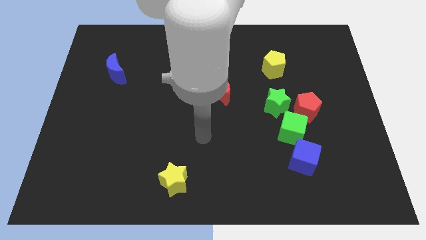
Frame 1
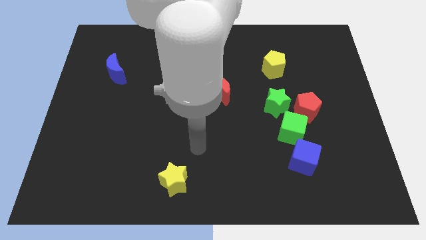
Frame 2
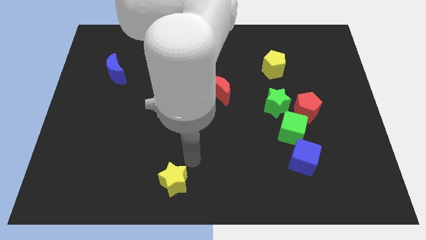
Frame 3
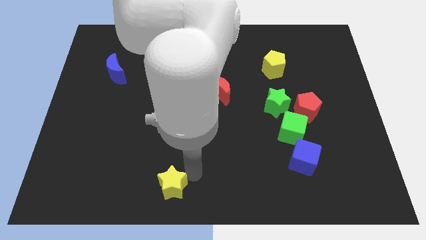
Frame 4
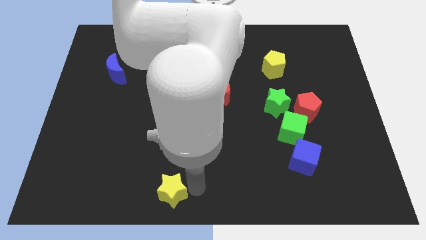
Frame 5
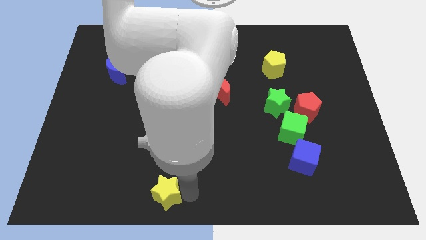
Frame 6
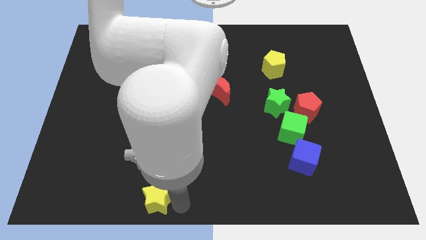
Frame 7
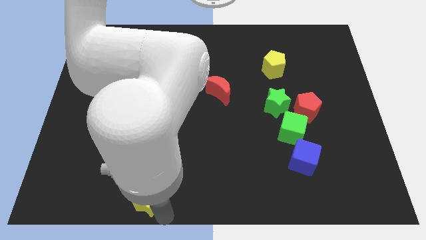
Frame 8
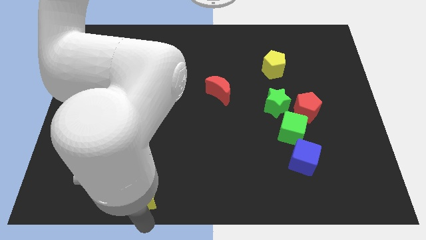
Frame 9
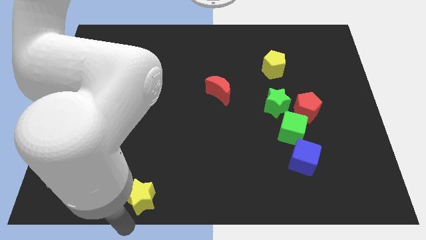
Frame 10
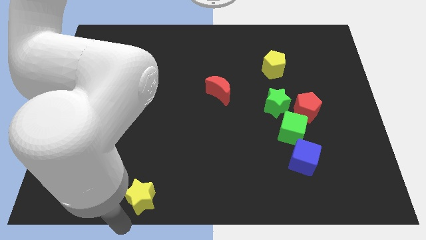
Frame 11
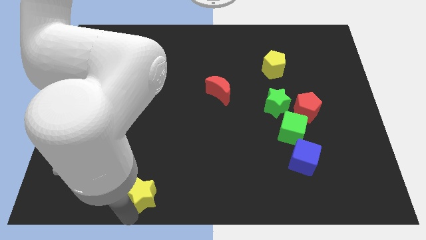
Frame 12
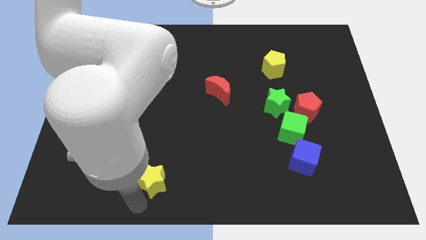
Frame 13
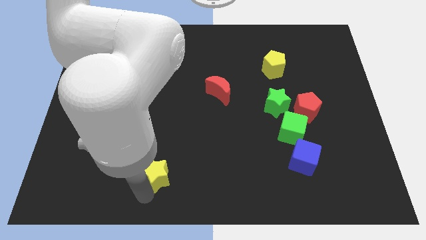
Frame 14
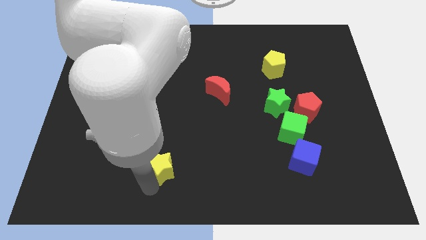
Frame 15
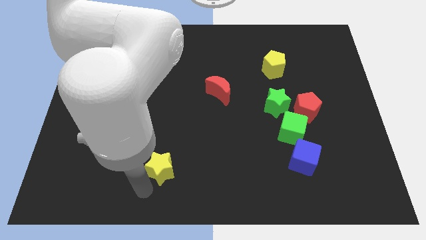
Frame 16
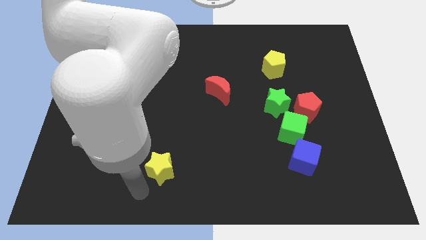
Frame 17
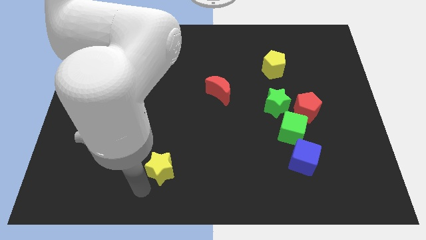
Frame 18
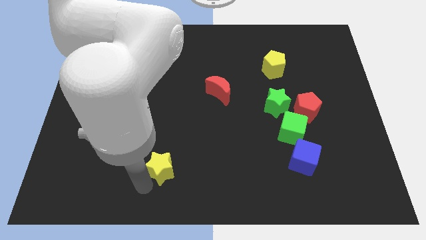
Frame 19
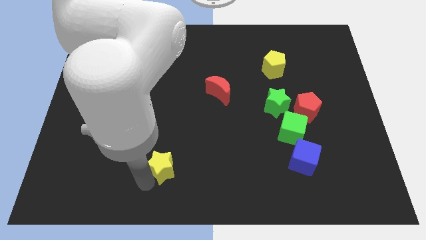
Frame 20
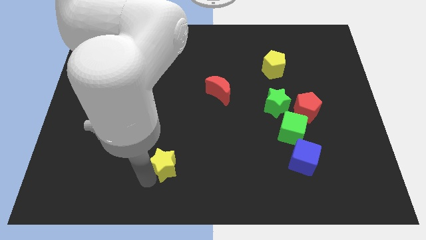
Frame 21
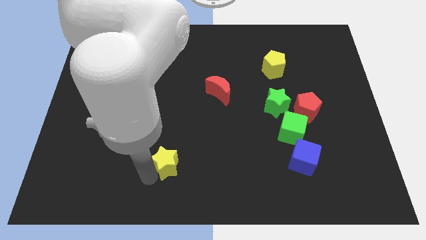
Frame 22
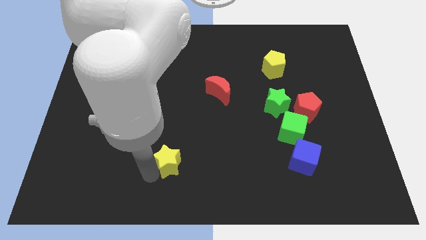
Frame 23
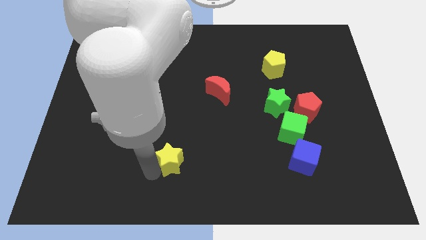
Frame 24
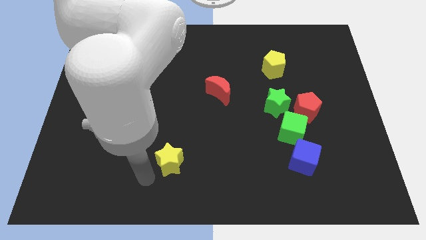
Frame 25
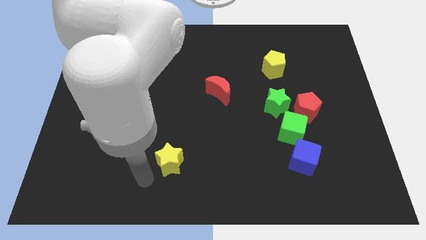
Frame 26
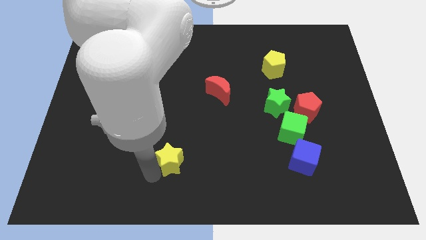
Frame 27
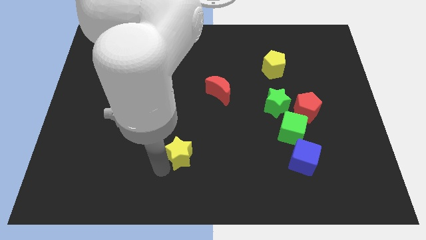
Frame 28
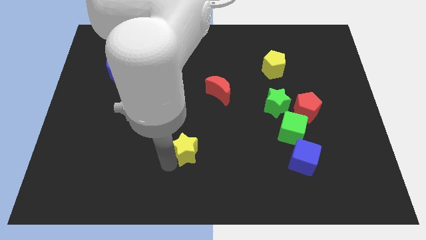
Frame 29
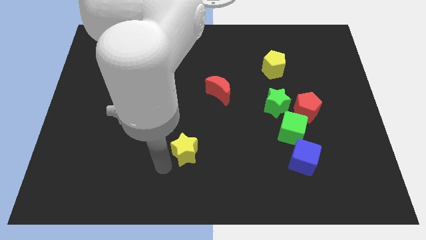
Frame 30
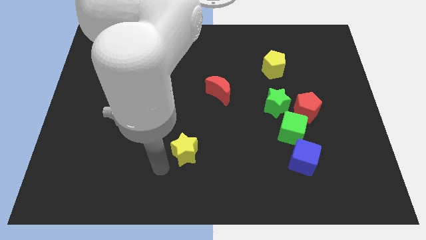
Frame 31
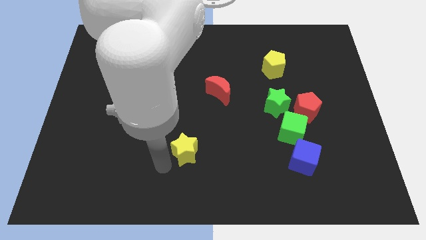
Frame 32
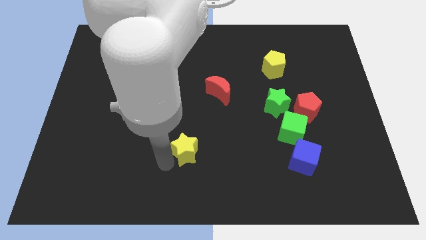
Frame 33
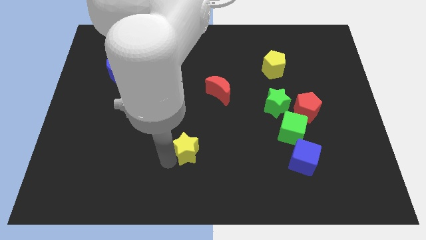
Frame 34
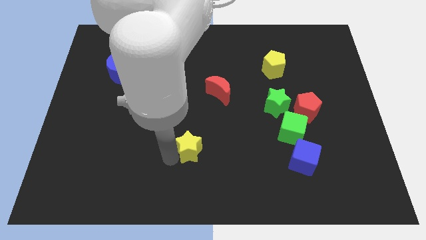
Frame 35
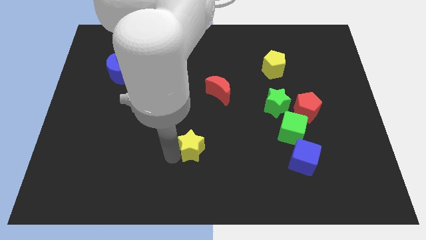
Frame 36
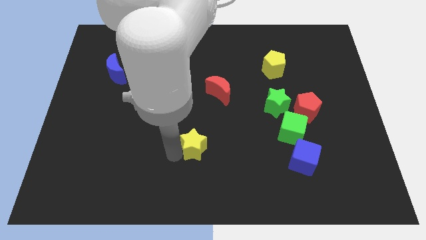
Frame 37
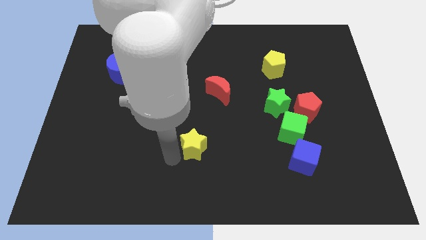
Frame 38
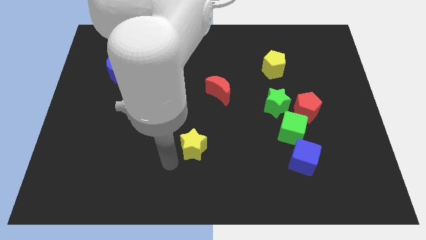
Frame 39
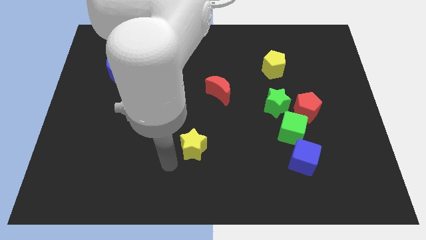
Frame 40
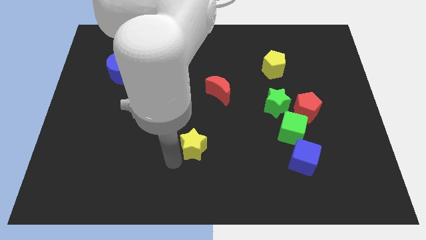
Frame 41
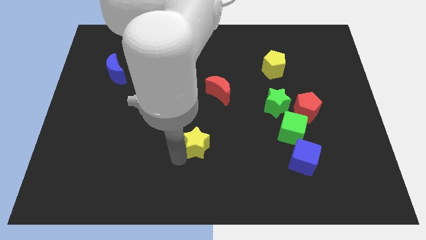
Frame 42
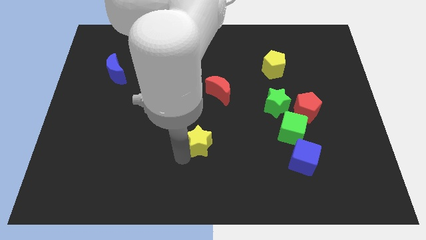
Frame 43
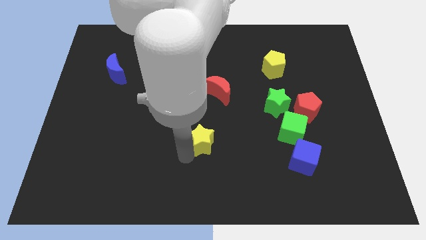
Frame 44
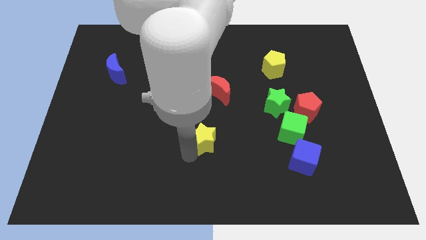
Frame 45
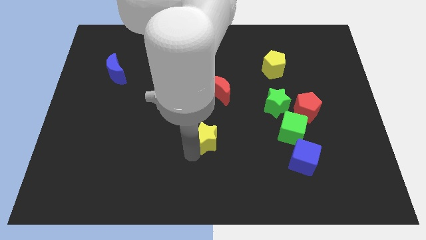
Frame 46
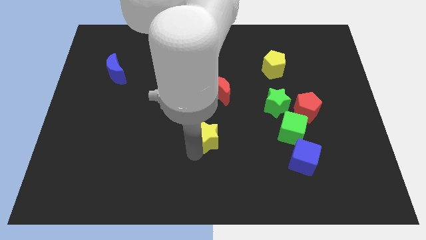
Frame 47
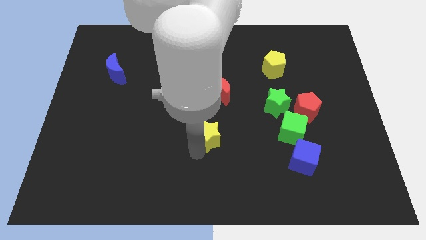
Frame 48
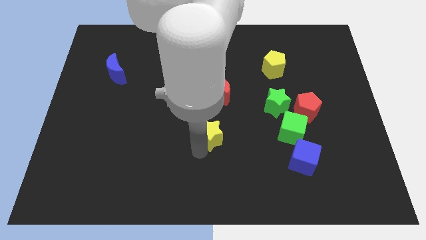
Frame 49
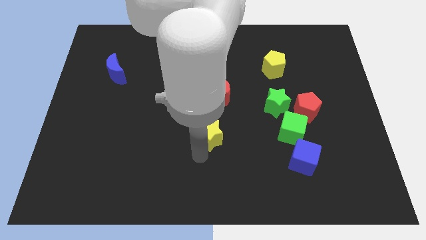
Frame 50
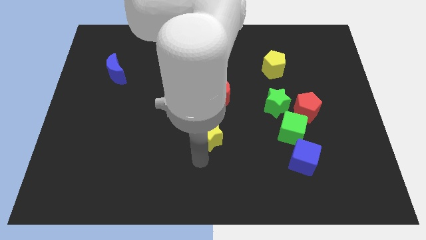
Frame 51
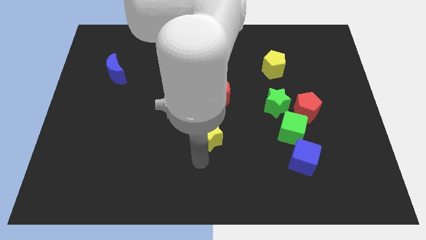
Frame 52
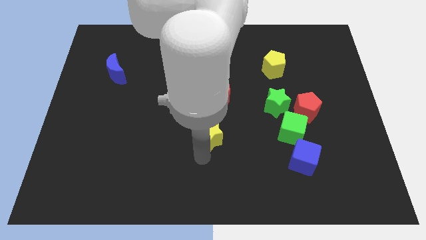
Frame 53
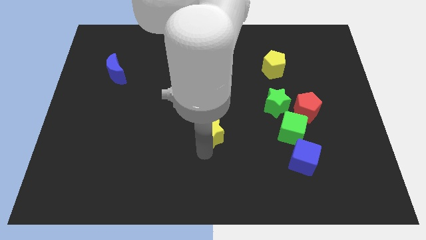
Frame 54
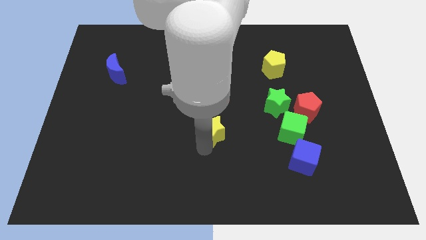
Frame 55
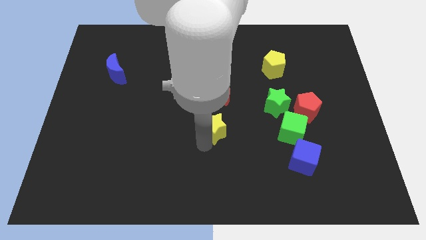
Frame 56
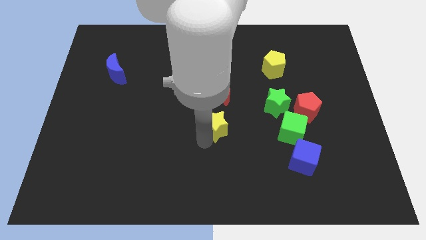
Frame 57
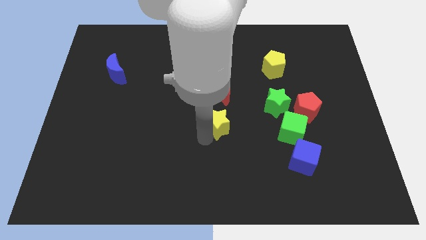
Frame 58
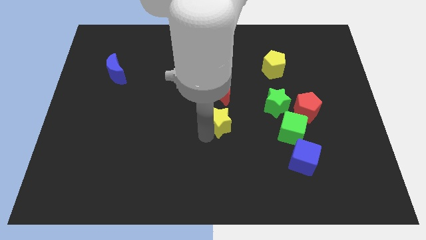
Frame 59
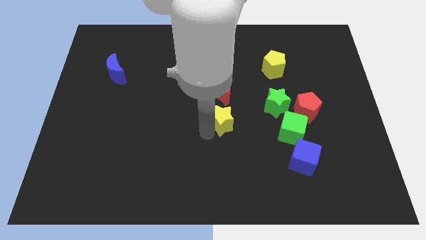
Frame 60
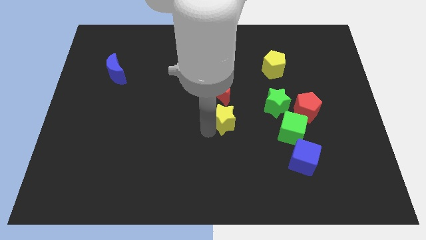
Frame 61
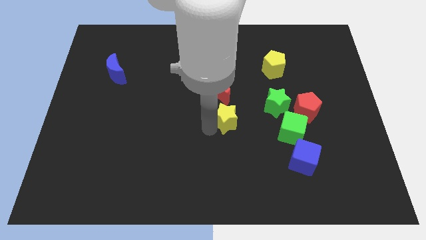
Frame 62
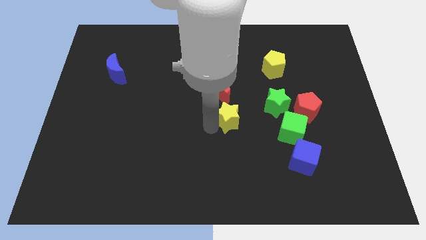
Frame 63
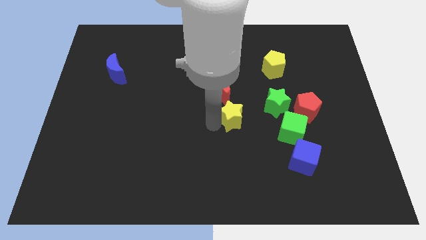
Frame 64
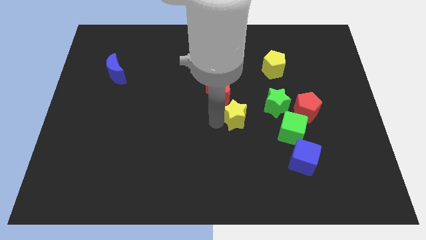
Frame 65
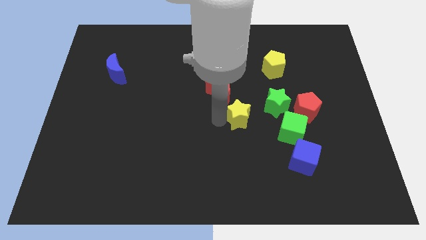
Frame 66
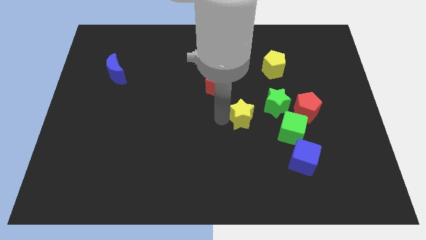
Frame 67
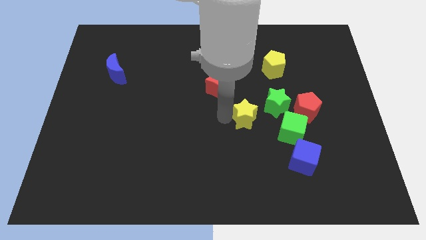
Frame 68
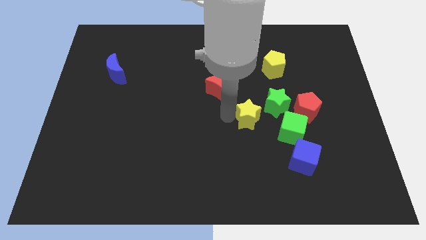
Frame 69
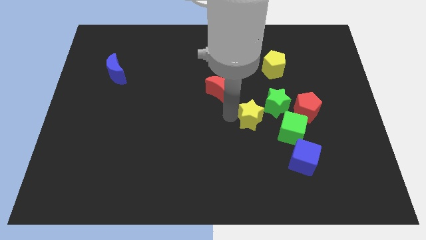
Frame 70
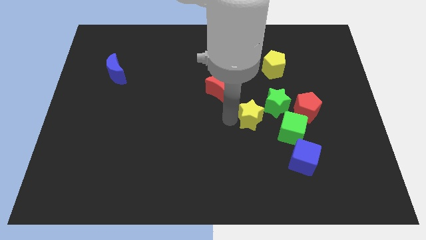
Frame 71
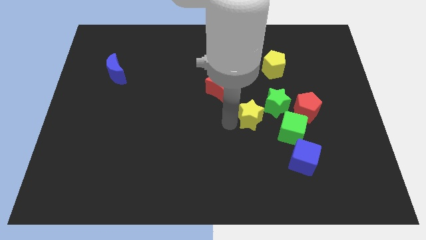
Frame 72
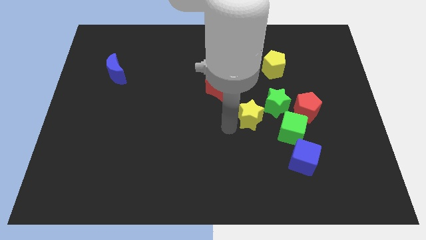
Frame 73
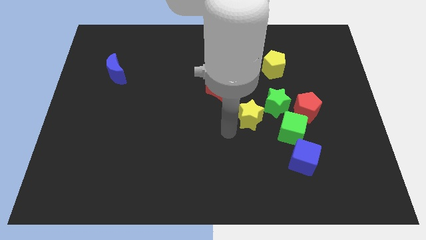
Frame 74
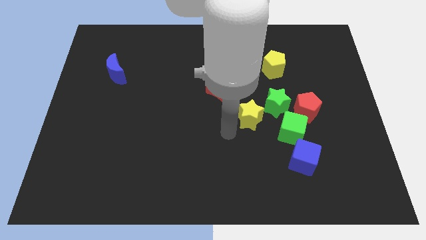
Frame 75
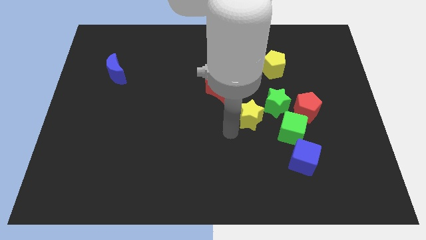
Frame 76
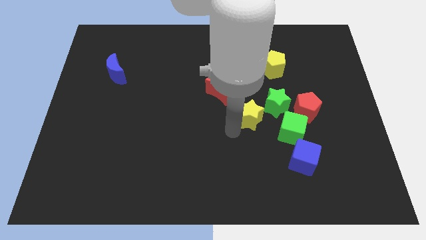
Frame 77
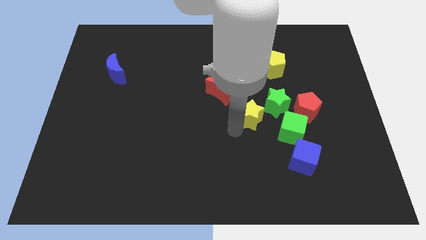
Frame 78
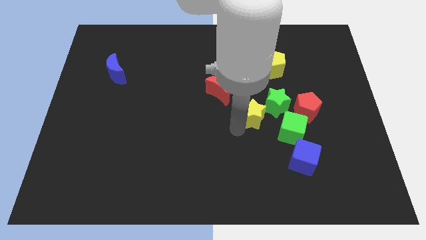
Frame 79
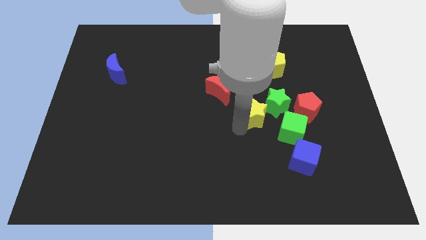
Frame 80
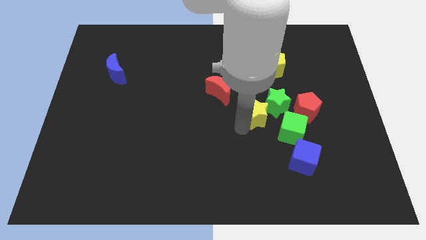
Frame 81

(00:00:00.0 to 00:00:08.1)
slide the yellow star close to the green star
